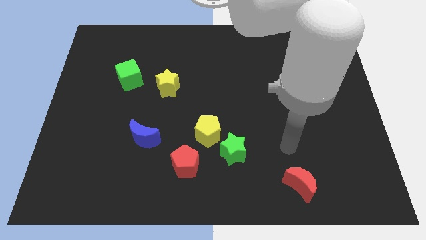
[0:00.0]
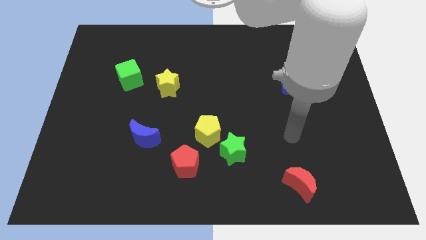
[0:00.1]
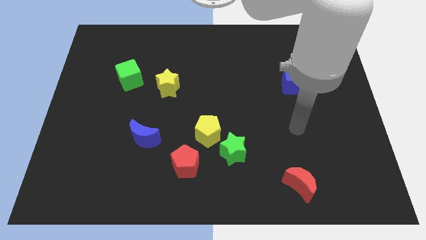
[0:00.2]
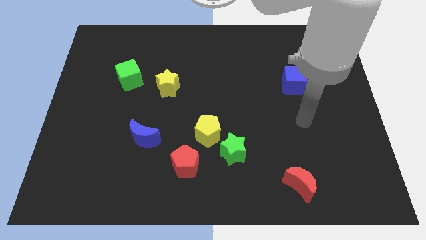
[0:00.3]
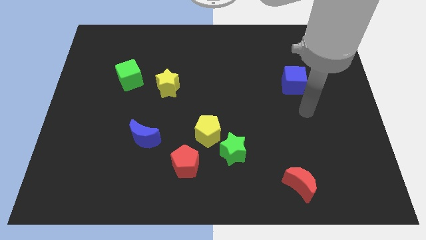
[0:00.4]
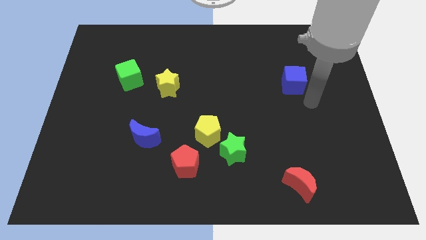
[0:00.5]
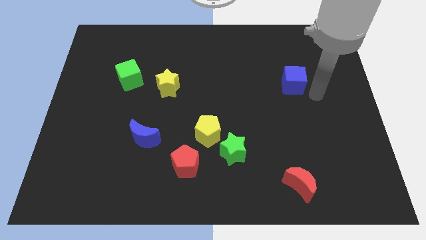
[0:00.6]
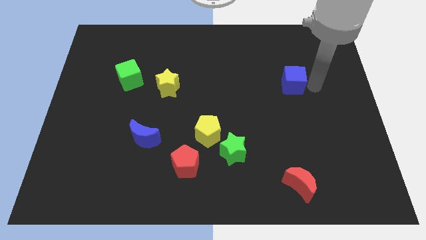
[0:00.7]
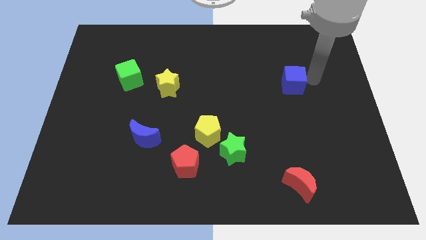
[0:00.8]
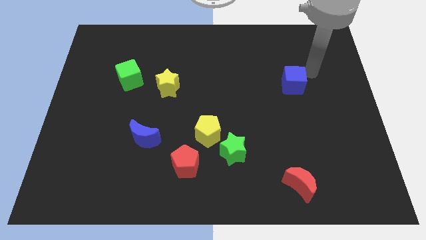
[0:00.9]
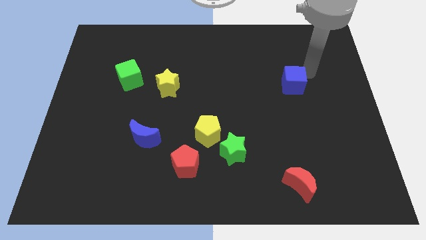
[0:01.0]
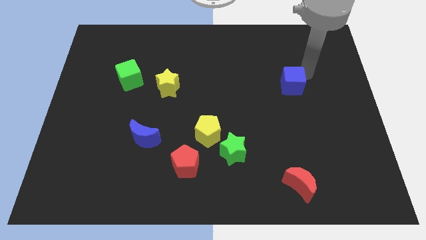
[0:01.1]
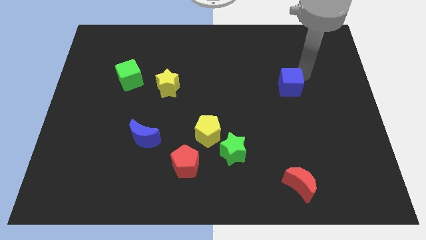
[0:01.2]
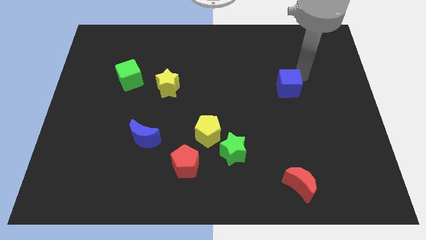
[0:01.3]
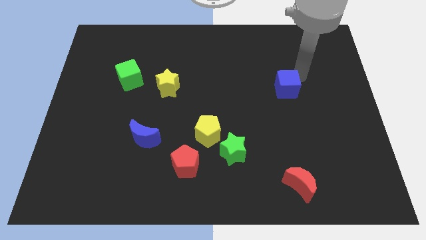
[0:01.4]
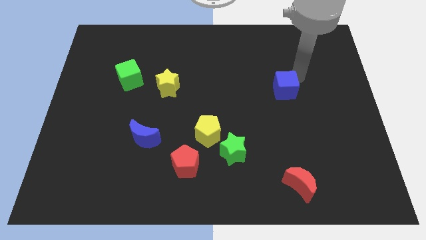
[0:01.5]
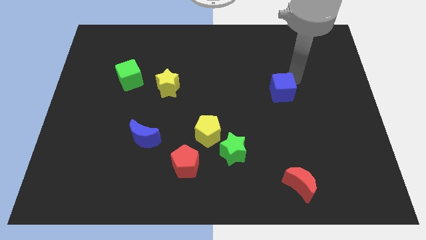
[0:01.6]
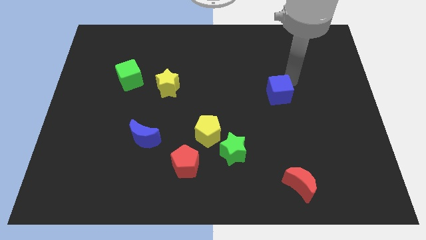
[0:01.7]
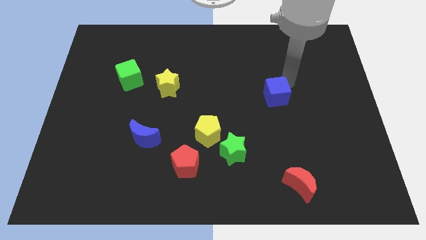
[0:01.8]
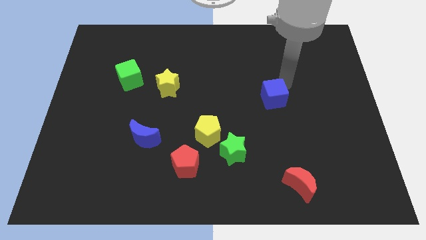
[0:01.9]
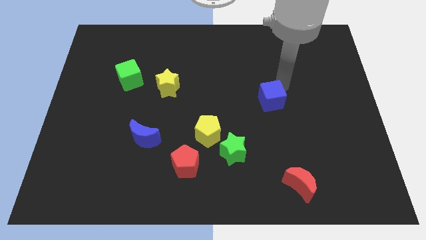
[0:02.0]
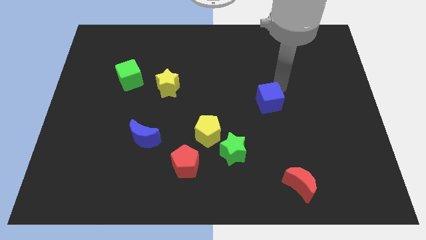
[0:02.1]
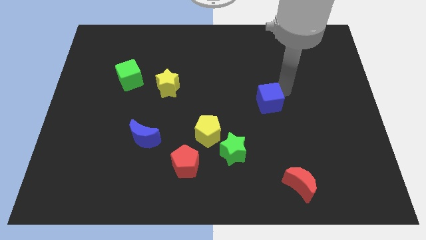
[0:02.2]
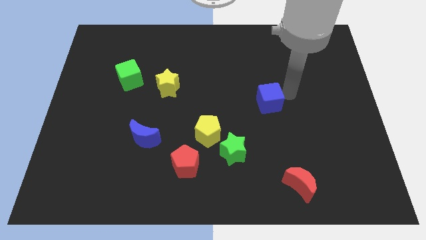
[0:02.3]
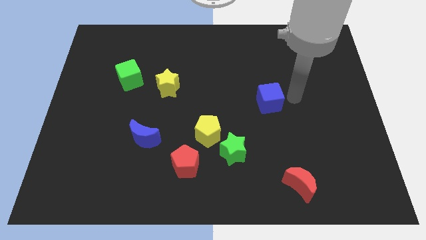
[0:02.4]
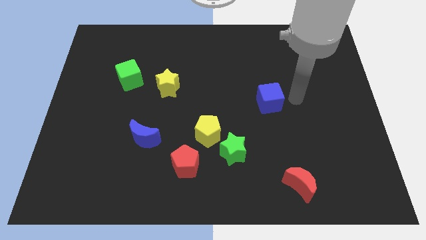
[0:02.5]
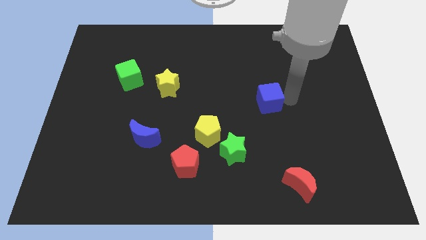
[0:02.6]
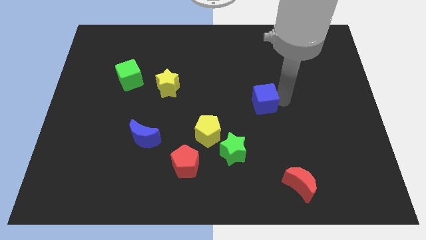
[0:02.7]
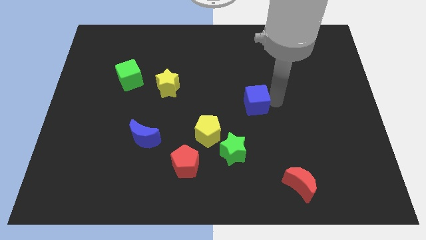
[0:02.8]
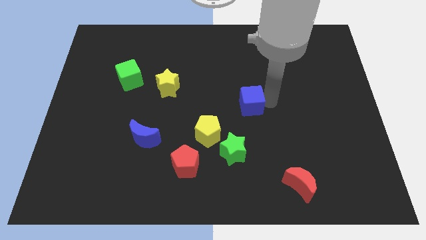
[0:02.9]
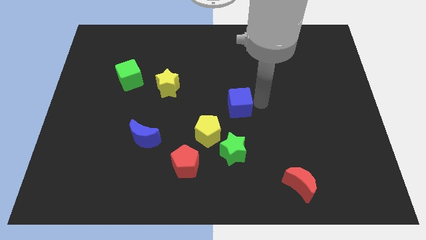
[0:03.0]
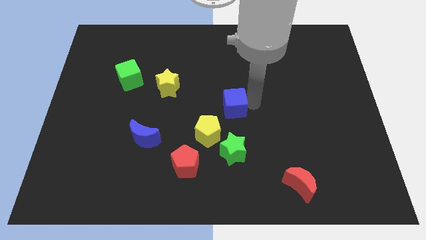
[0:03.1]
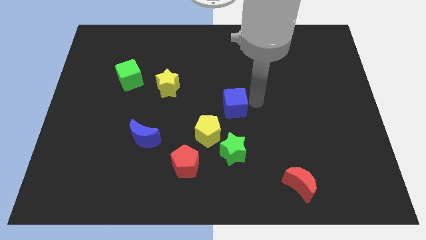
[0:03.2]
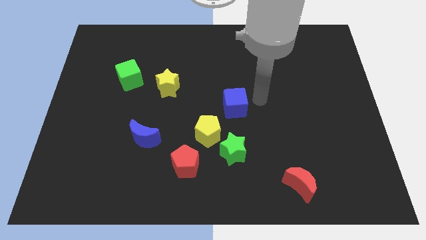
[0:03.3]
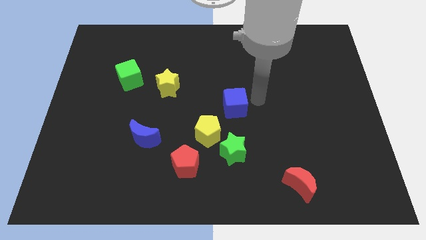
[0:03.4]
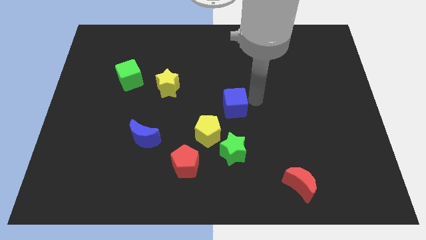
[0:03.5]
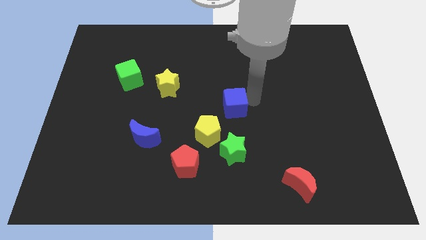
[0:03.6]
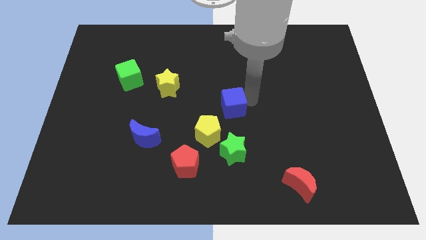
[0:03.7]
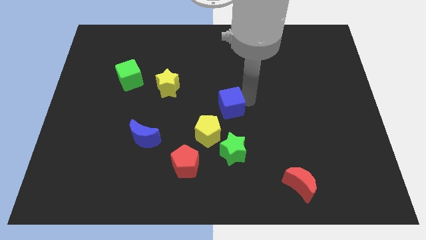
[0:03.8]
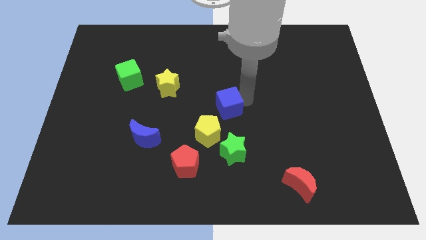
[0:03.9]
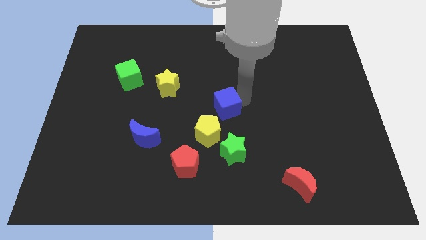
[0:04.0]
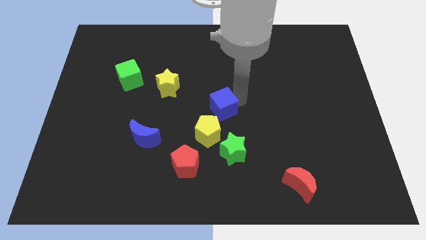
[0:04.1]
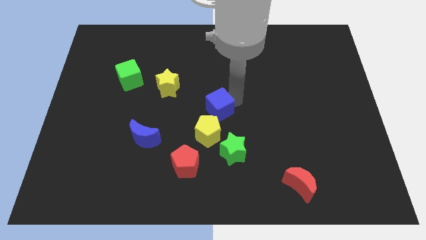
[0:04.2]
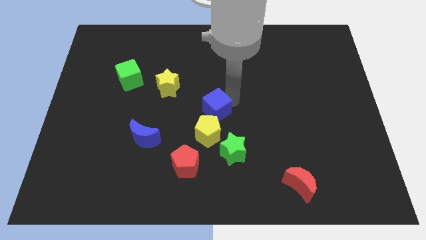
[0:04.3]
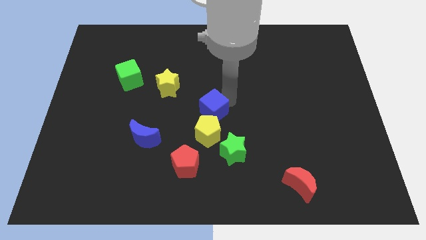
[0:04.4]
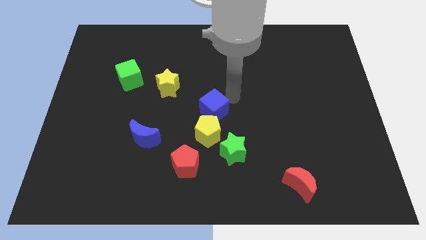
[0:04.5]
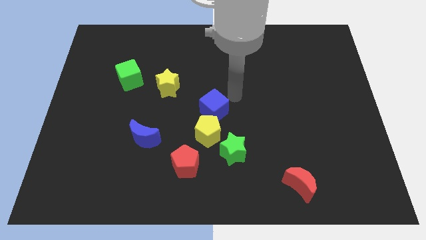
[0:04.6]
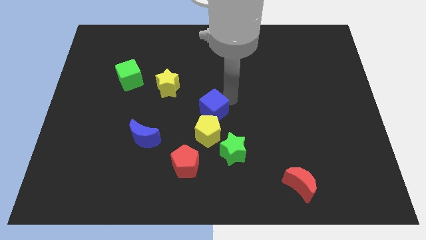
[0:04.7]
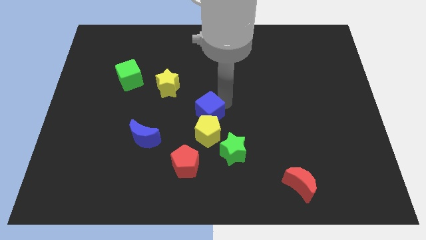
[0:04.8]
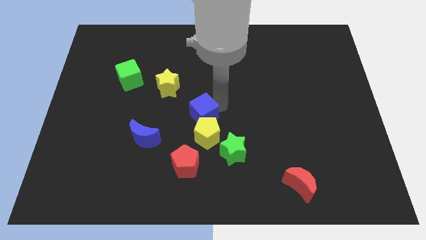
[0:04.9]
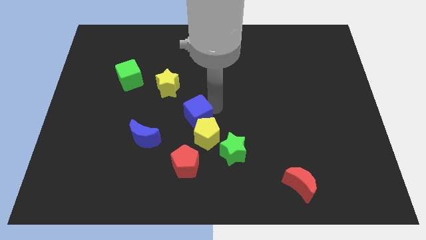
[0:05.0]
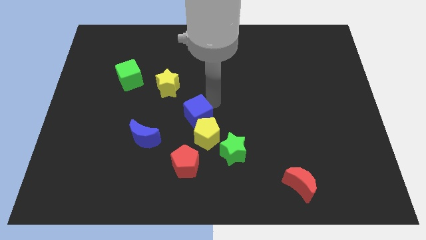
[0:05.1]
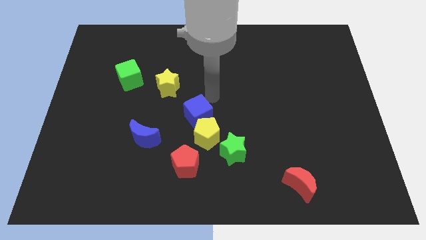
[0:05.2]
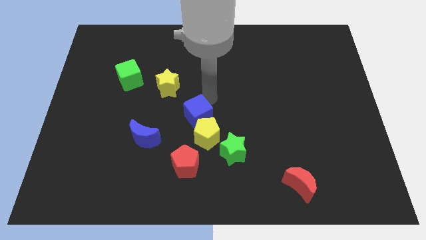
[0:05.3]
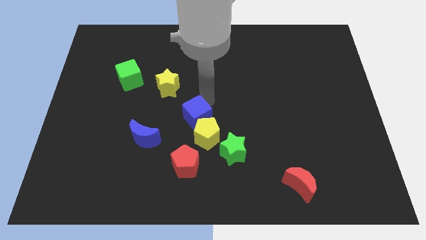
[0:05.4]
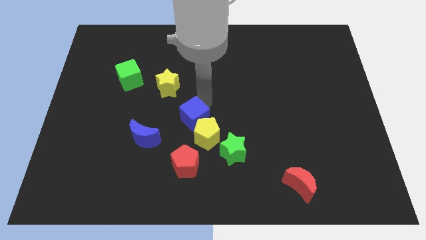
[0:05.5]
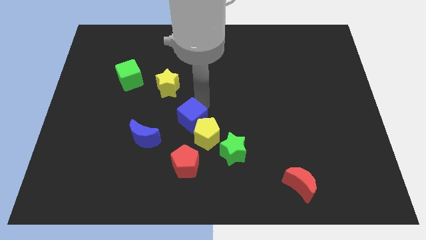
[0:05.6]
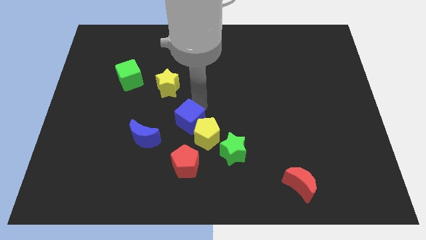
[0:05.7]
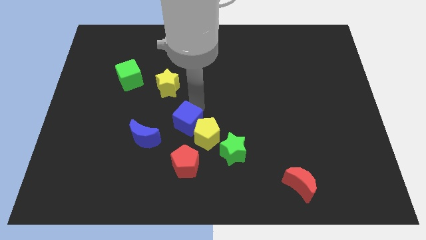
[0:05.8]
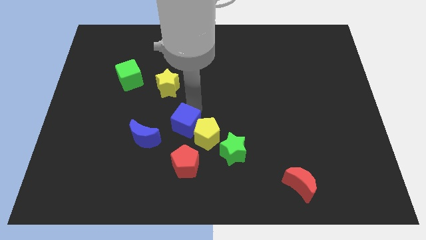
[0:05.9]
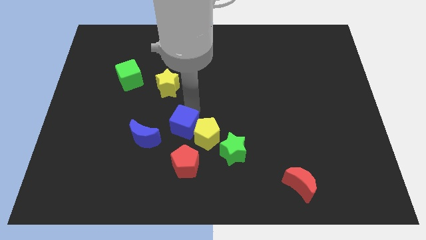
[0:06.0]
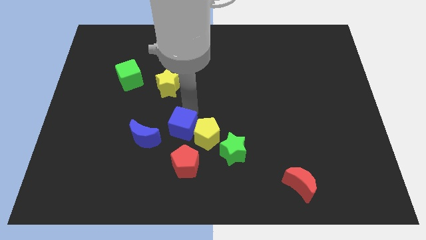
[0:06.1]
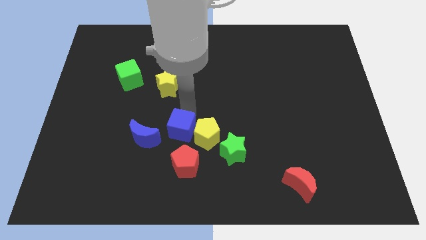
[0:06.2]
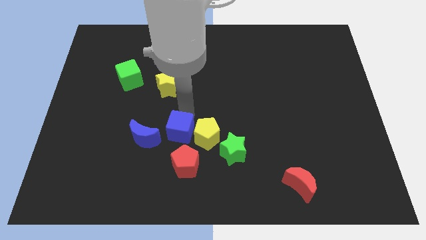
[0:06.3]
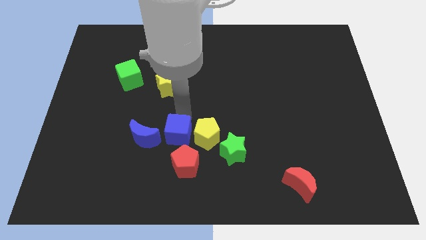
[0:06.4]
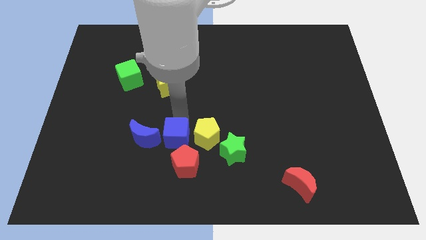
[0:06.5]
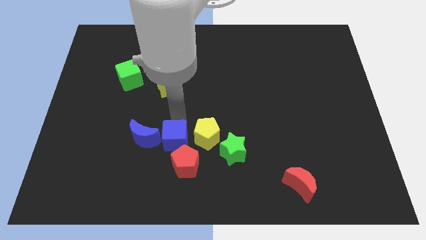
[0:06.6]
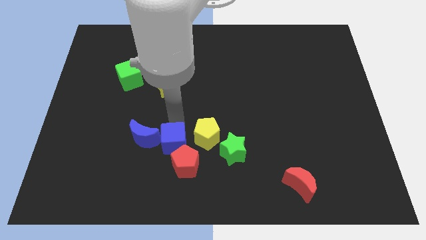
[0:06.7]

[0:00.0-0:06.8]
push the blue cube close to the red pentagon

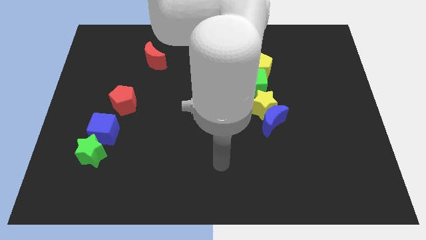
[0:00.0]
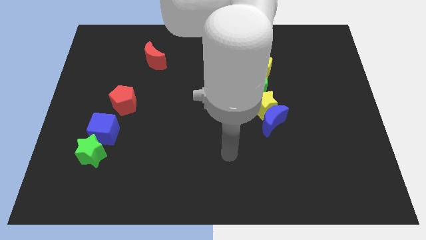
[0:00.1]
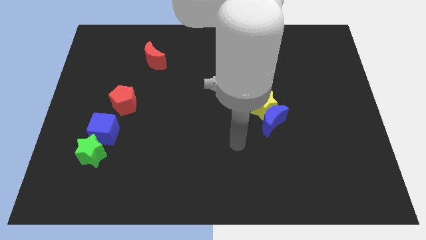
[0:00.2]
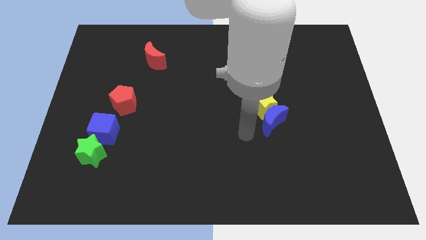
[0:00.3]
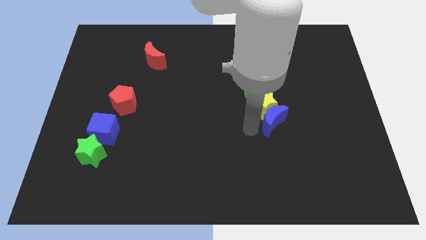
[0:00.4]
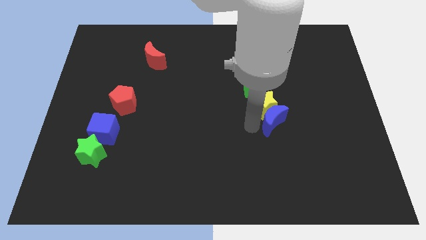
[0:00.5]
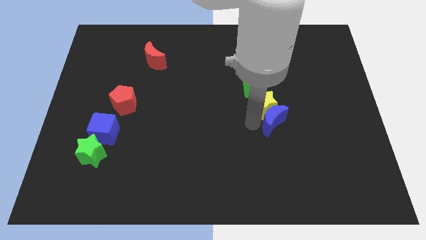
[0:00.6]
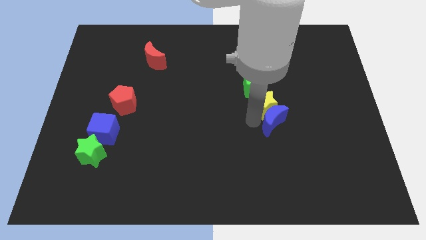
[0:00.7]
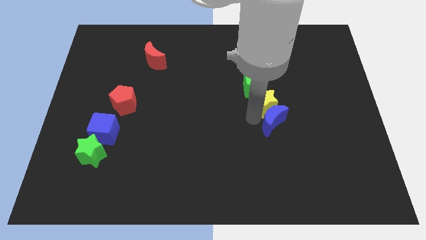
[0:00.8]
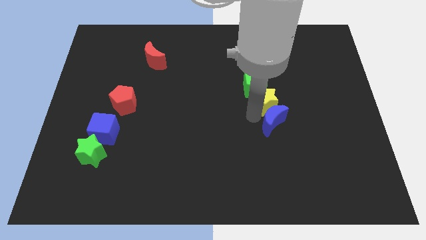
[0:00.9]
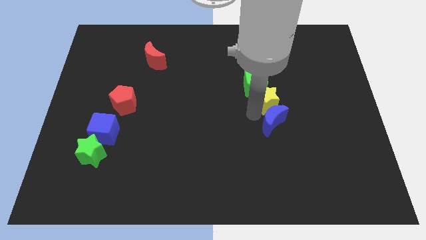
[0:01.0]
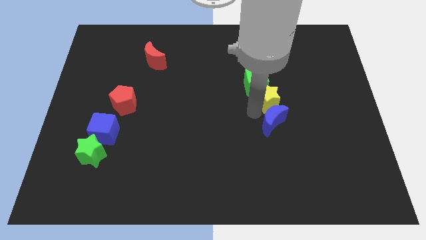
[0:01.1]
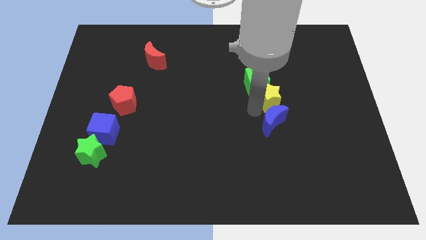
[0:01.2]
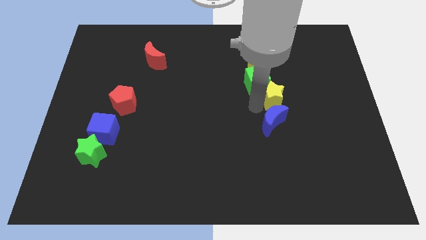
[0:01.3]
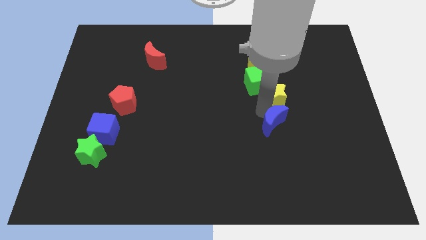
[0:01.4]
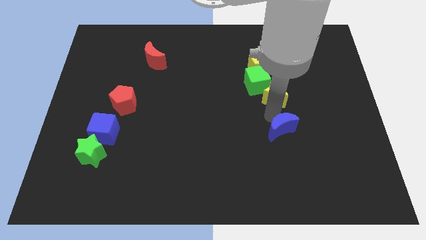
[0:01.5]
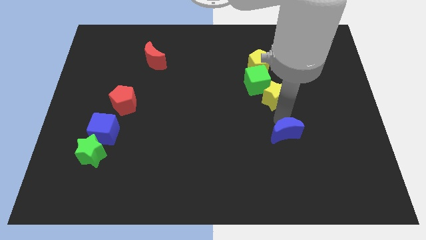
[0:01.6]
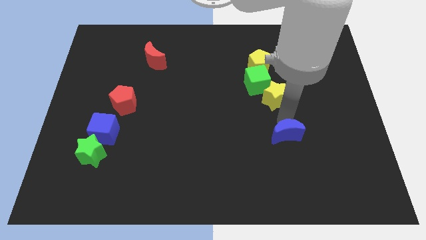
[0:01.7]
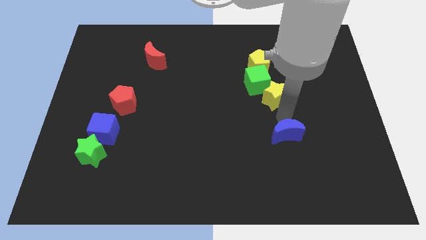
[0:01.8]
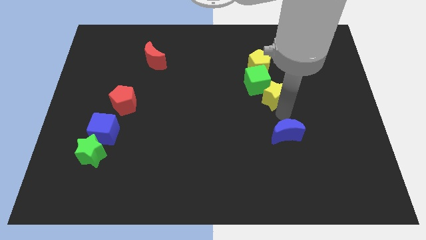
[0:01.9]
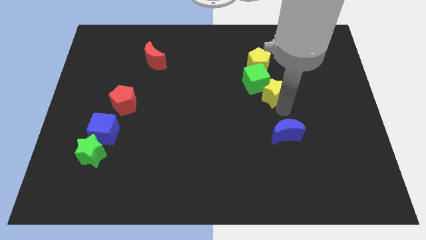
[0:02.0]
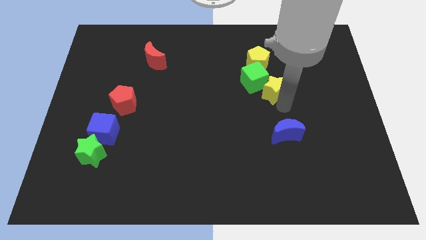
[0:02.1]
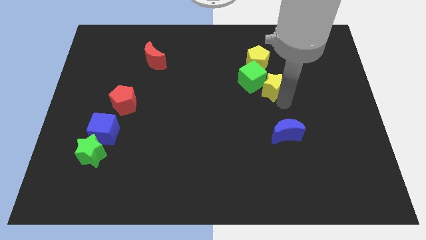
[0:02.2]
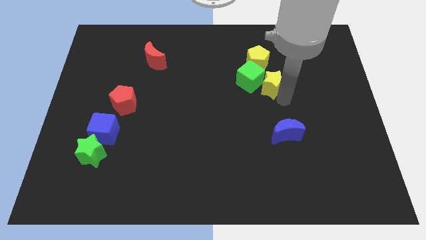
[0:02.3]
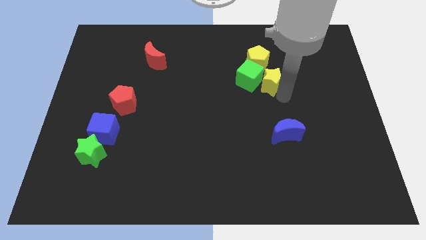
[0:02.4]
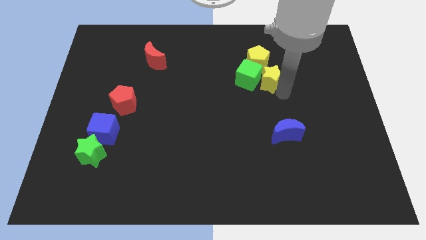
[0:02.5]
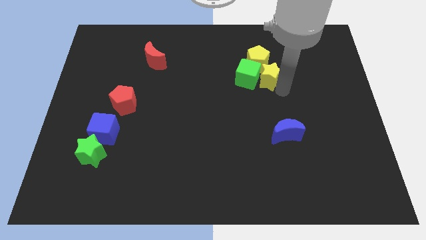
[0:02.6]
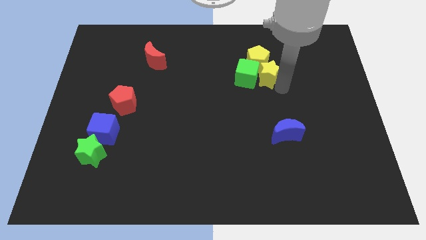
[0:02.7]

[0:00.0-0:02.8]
move the yellow star to the yellow pentagon
